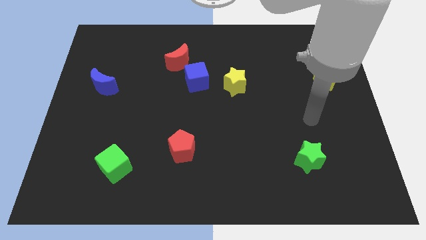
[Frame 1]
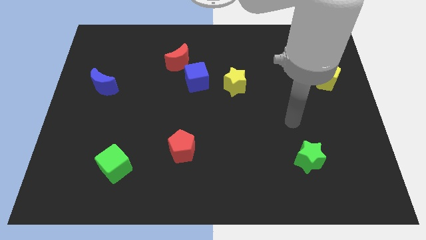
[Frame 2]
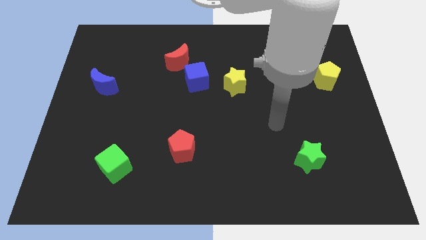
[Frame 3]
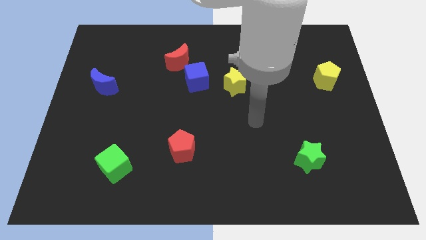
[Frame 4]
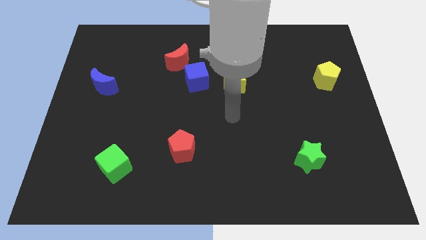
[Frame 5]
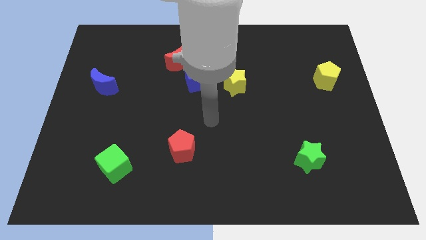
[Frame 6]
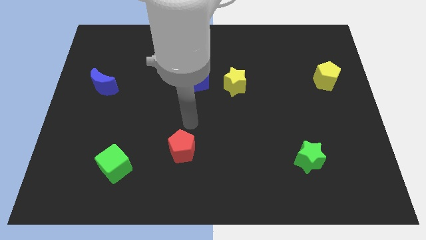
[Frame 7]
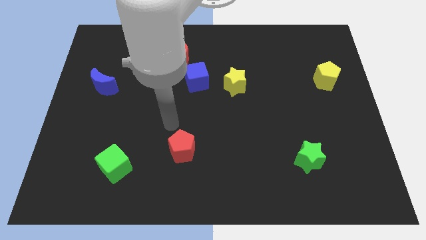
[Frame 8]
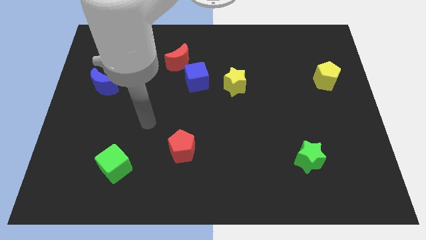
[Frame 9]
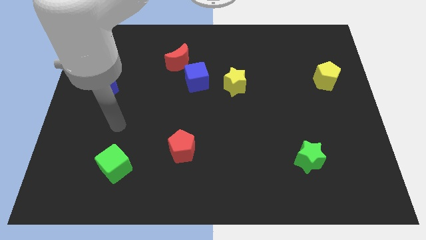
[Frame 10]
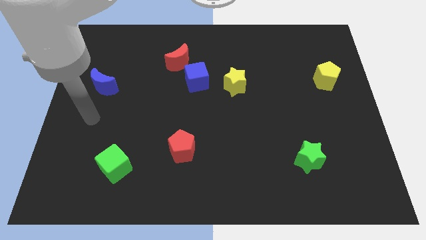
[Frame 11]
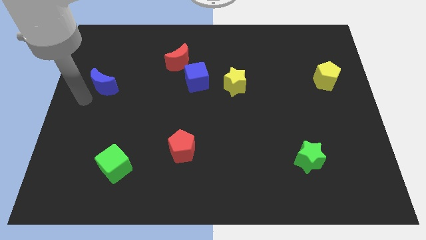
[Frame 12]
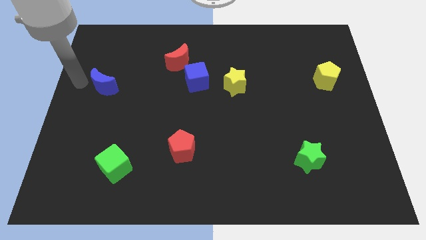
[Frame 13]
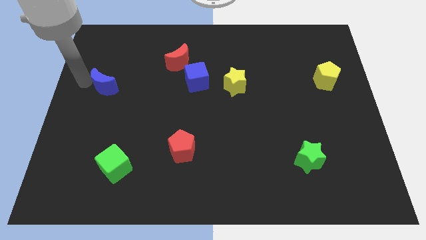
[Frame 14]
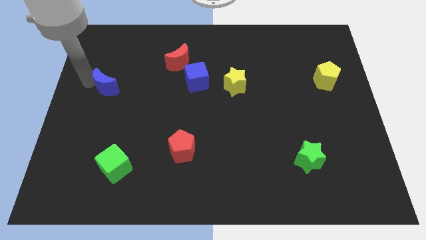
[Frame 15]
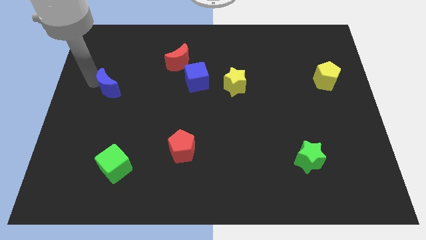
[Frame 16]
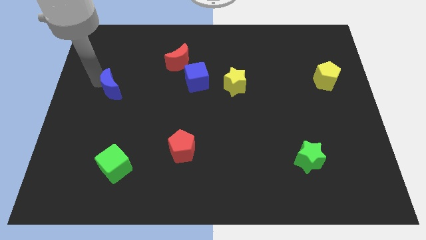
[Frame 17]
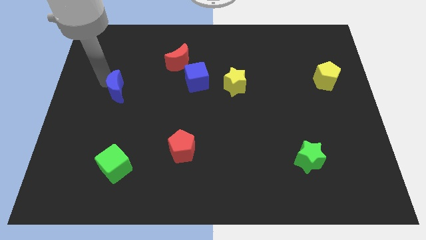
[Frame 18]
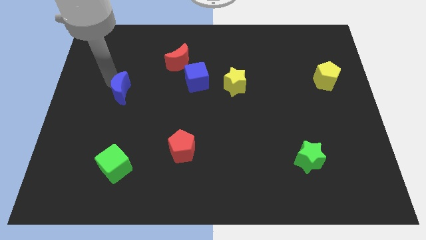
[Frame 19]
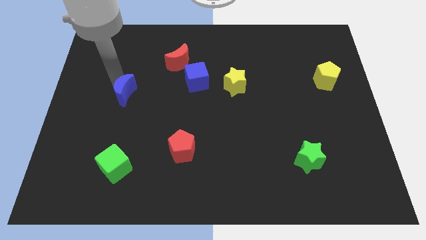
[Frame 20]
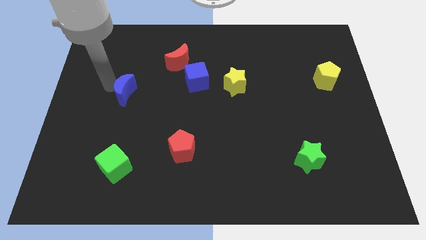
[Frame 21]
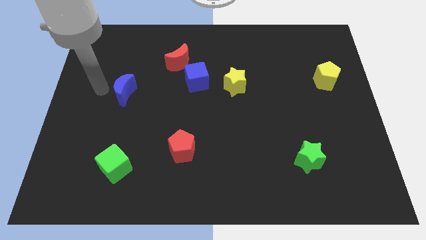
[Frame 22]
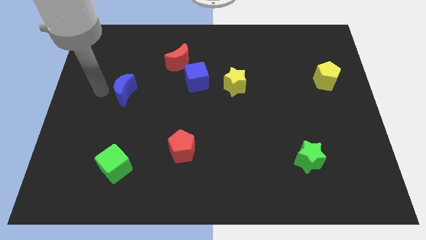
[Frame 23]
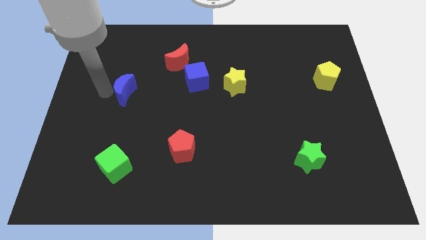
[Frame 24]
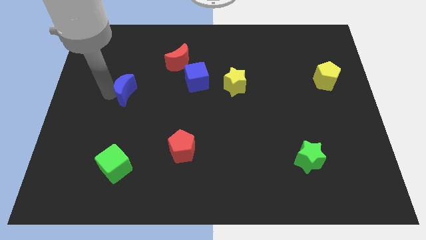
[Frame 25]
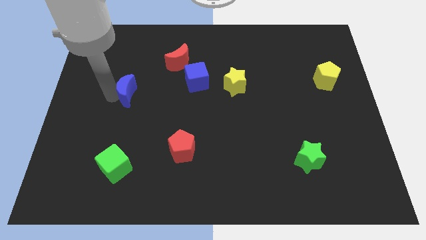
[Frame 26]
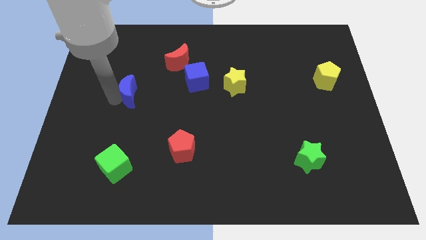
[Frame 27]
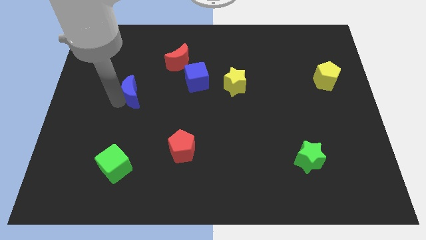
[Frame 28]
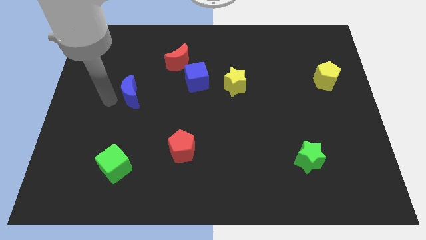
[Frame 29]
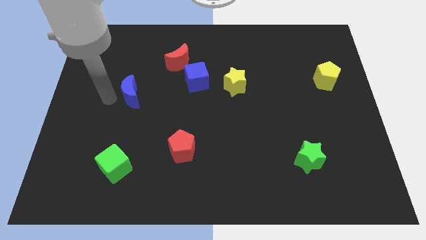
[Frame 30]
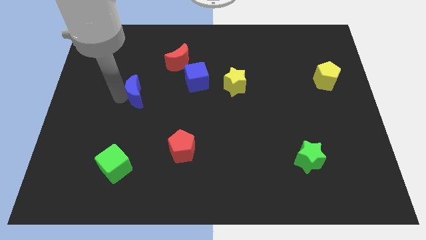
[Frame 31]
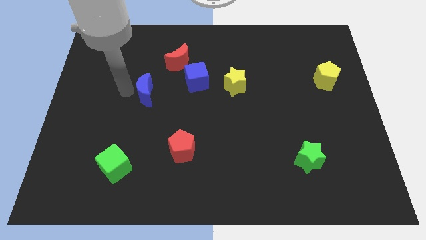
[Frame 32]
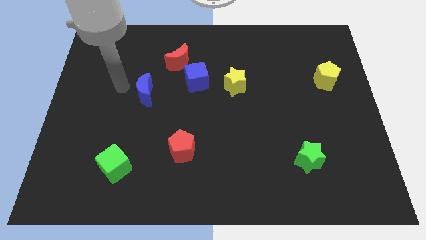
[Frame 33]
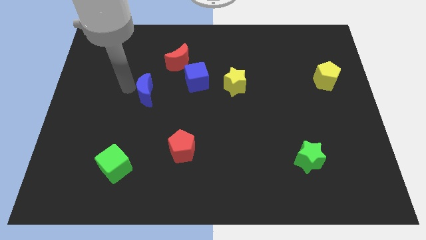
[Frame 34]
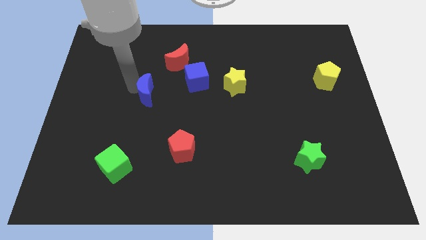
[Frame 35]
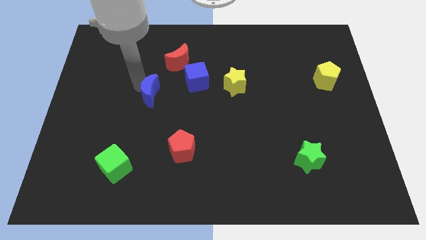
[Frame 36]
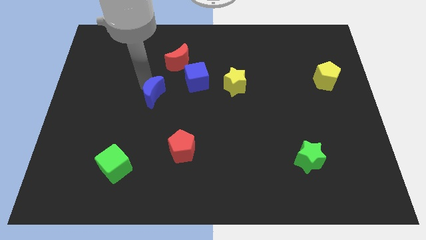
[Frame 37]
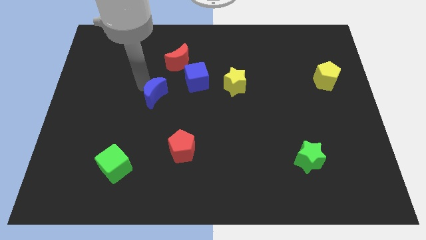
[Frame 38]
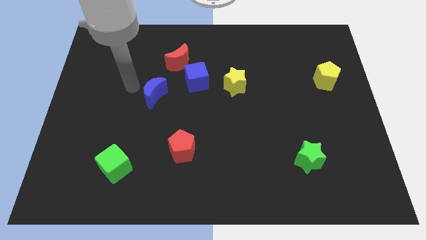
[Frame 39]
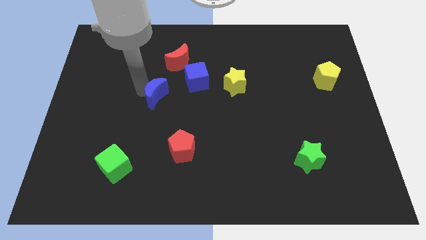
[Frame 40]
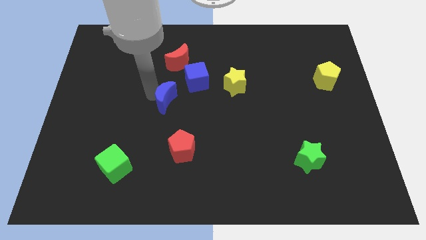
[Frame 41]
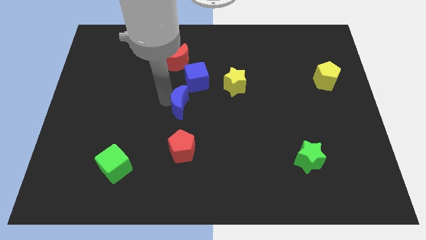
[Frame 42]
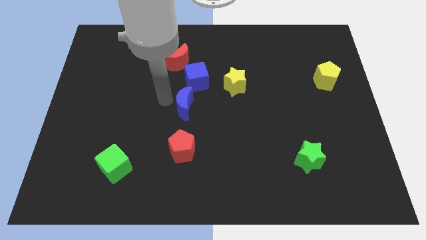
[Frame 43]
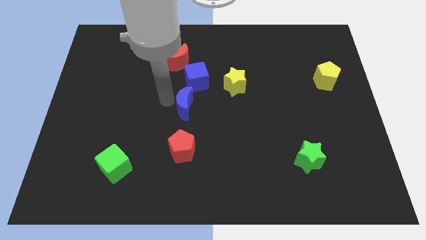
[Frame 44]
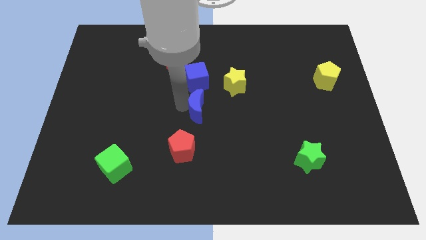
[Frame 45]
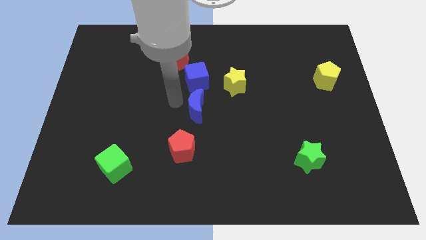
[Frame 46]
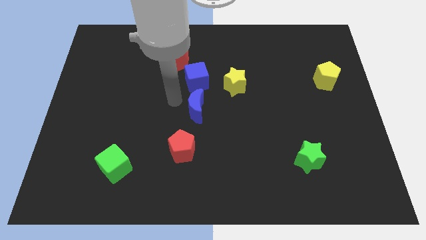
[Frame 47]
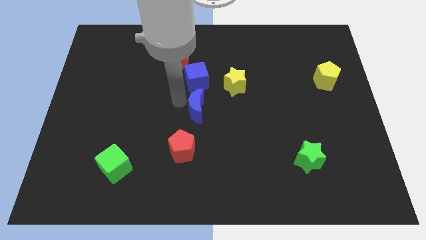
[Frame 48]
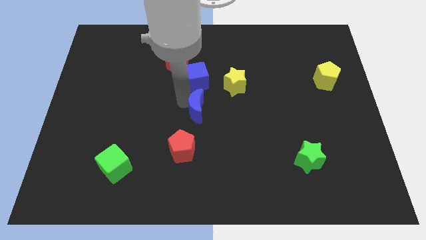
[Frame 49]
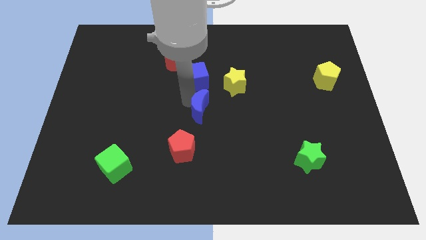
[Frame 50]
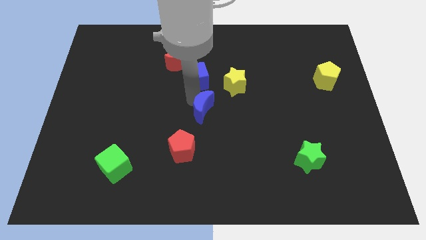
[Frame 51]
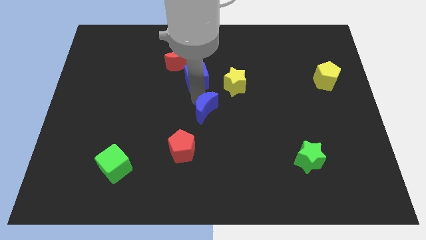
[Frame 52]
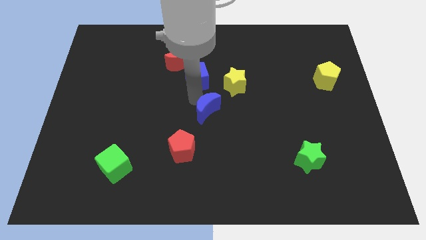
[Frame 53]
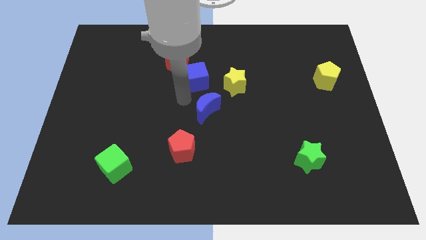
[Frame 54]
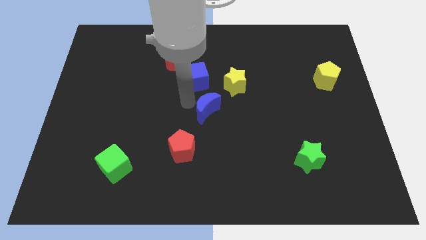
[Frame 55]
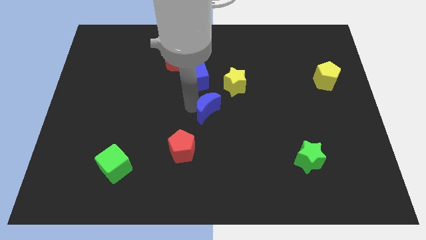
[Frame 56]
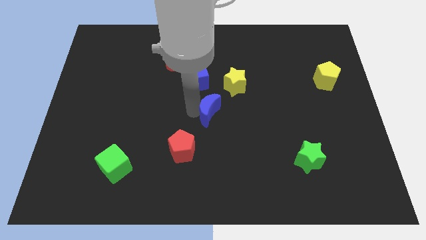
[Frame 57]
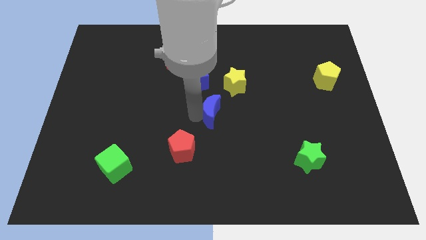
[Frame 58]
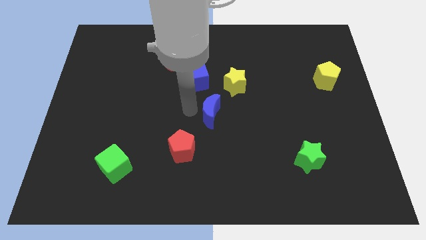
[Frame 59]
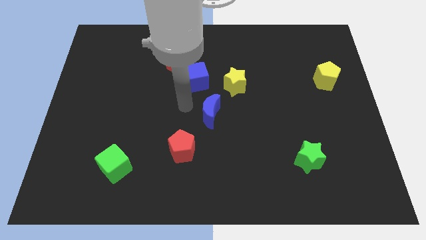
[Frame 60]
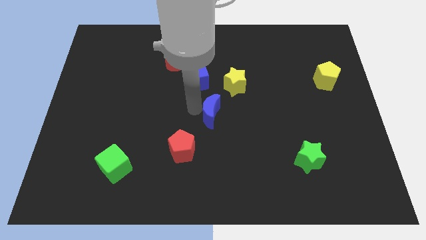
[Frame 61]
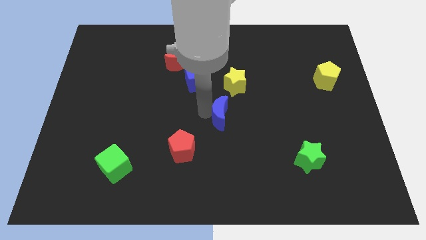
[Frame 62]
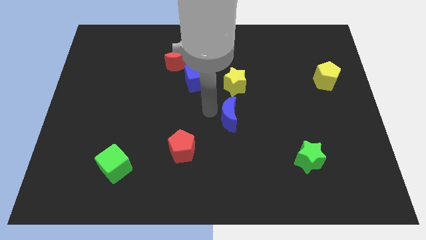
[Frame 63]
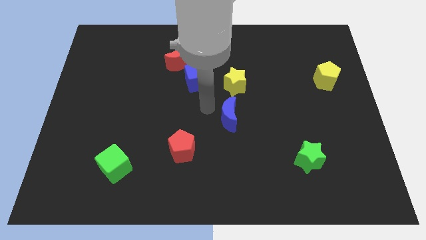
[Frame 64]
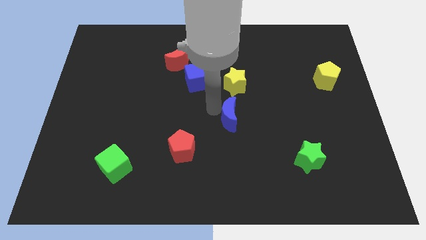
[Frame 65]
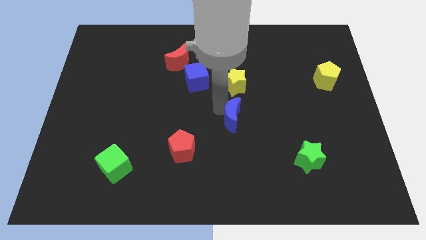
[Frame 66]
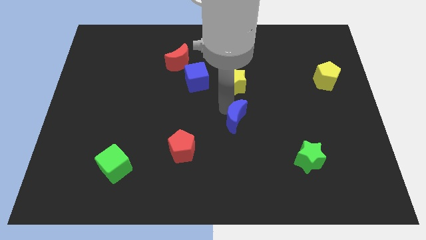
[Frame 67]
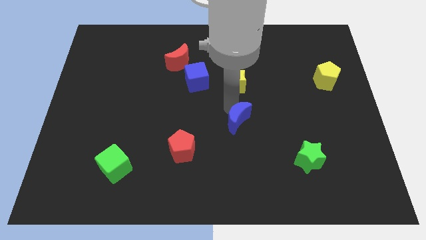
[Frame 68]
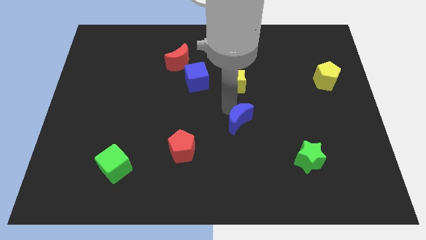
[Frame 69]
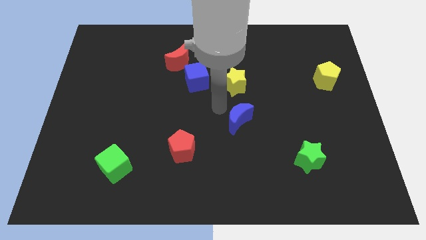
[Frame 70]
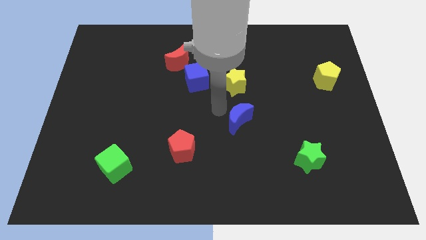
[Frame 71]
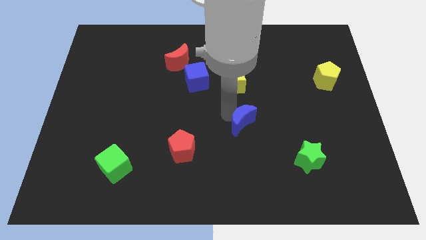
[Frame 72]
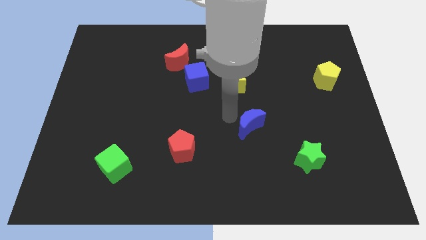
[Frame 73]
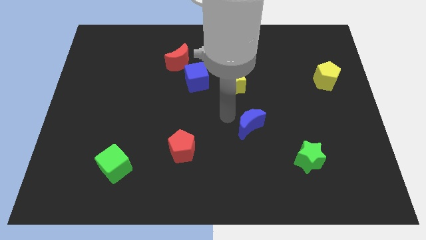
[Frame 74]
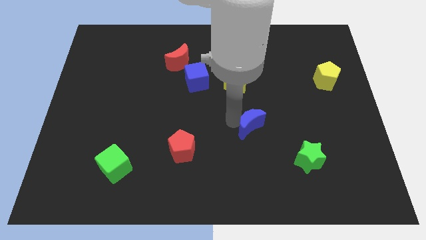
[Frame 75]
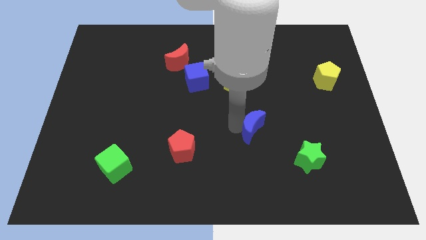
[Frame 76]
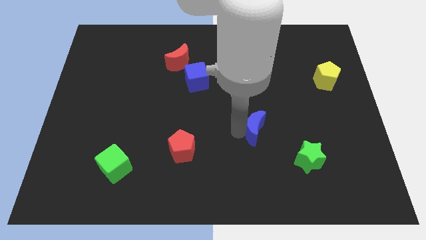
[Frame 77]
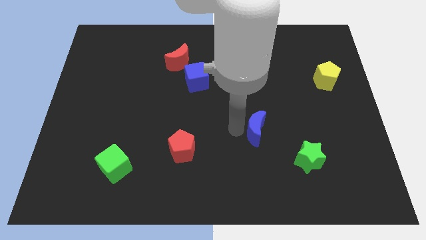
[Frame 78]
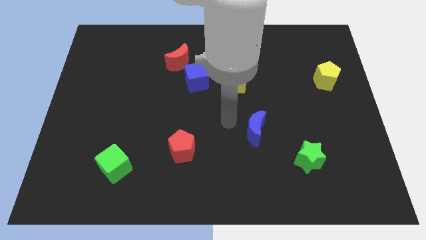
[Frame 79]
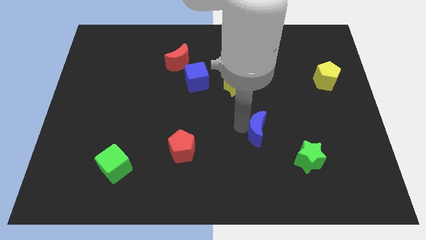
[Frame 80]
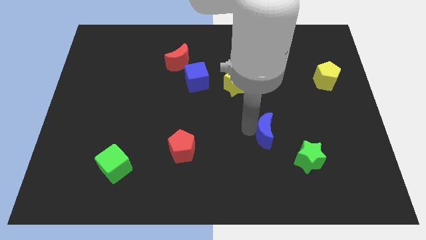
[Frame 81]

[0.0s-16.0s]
move the blue moon to the top left side of the green star
